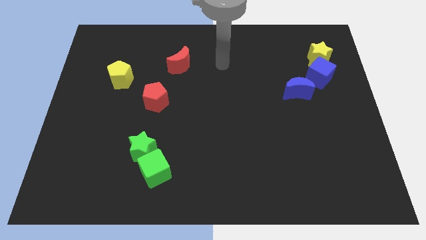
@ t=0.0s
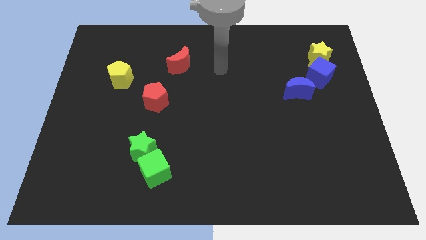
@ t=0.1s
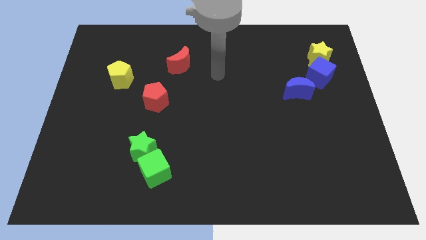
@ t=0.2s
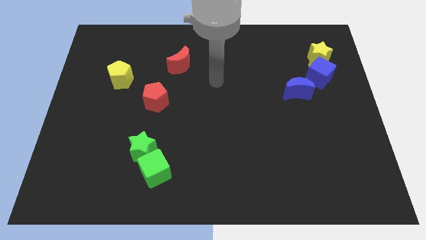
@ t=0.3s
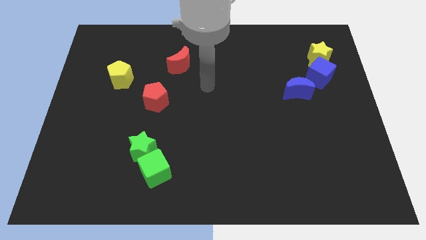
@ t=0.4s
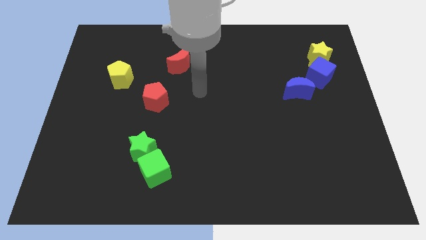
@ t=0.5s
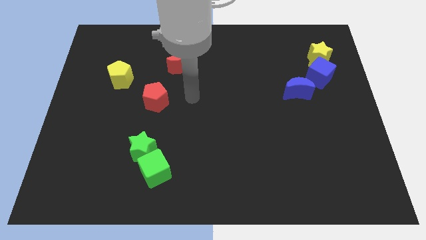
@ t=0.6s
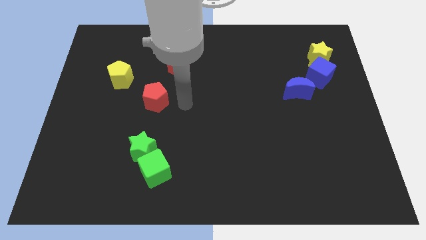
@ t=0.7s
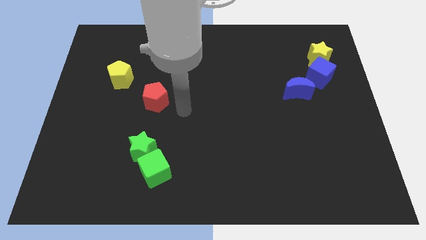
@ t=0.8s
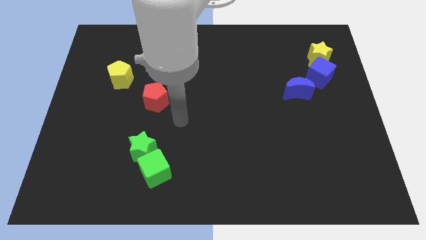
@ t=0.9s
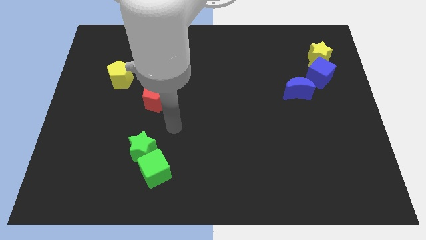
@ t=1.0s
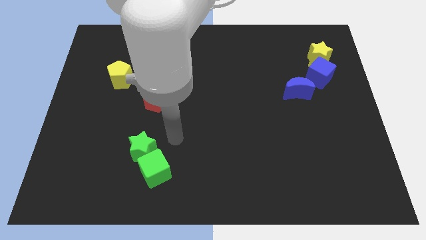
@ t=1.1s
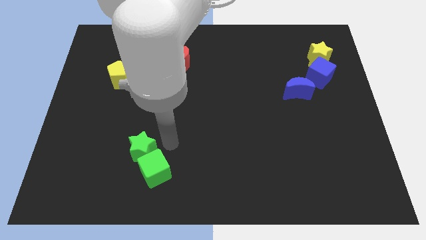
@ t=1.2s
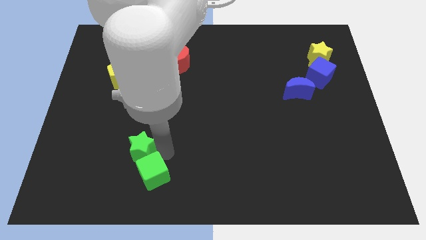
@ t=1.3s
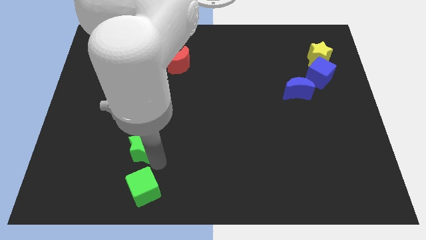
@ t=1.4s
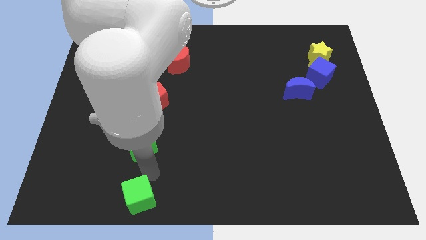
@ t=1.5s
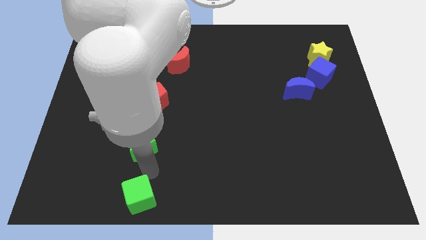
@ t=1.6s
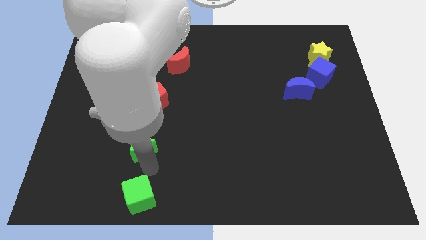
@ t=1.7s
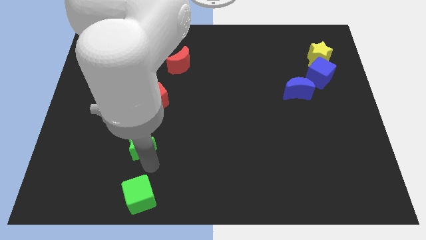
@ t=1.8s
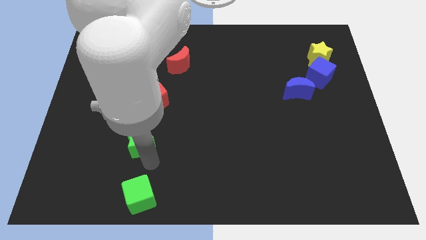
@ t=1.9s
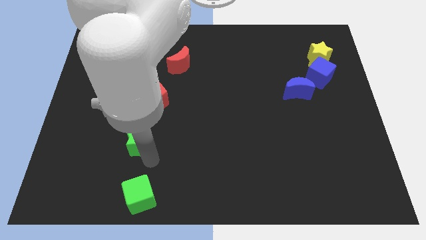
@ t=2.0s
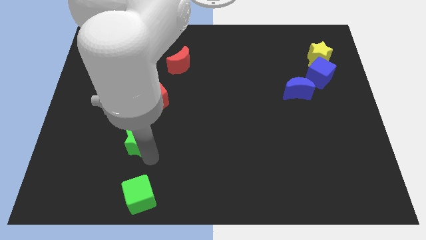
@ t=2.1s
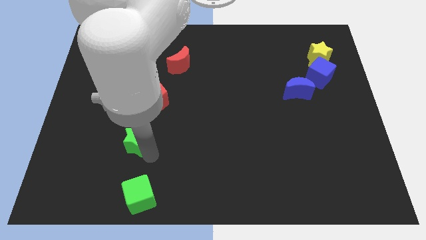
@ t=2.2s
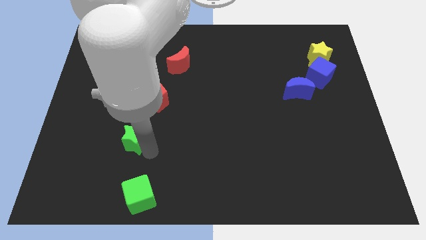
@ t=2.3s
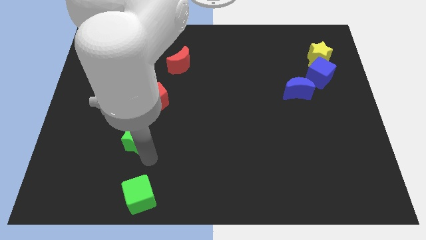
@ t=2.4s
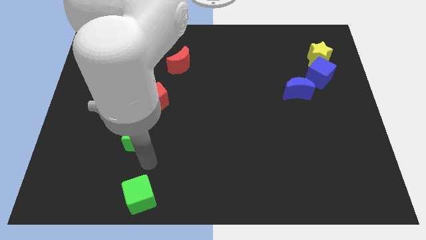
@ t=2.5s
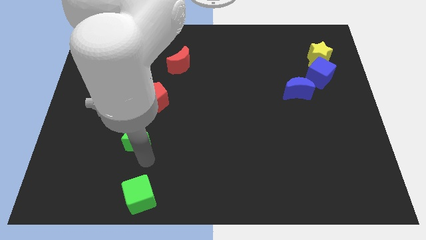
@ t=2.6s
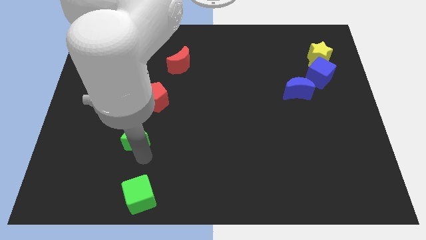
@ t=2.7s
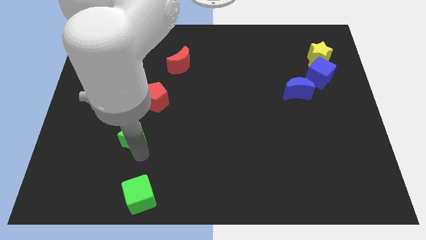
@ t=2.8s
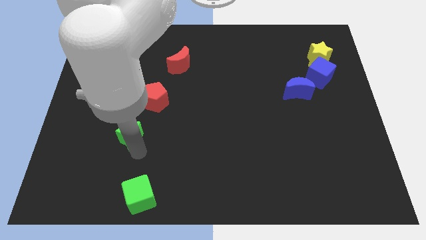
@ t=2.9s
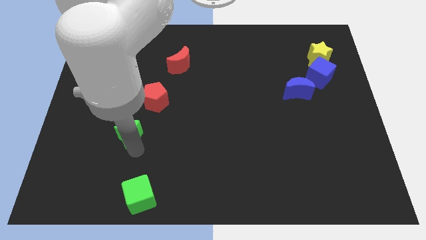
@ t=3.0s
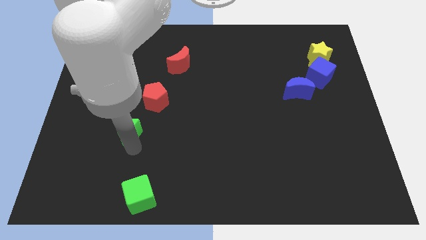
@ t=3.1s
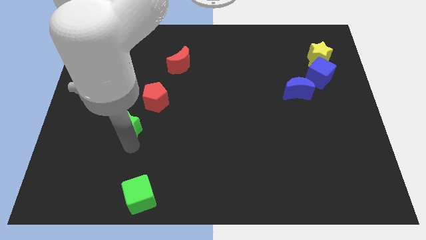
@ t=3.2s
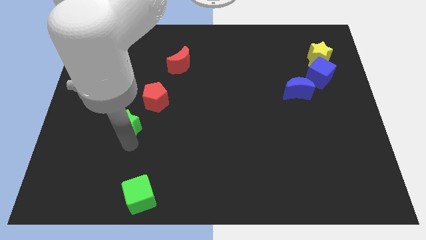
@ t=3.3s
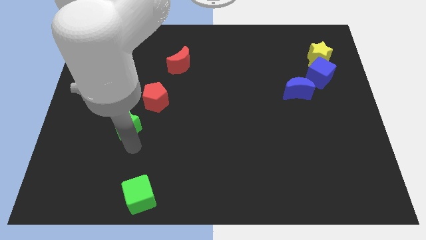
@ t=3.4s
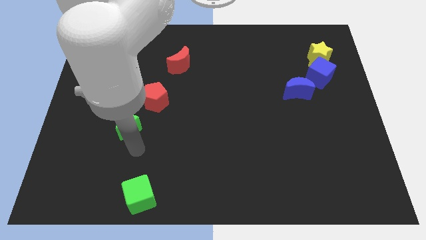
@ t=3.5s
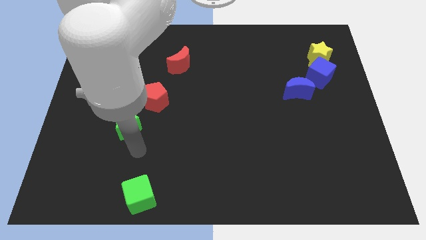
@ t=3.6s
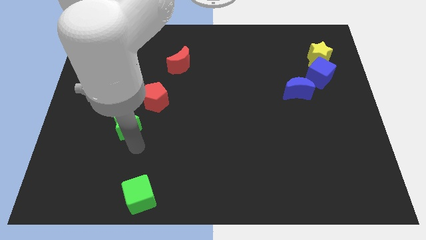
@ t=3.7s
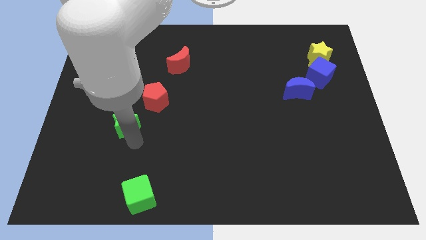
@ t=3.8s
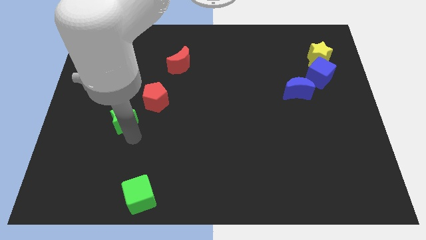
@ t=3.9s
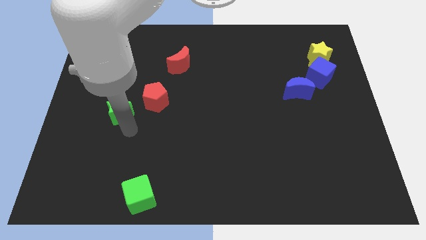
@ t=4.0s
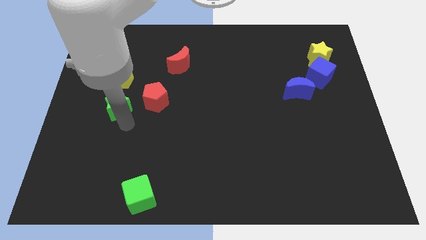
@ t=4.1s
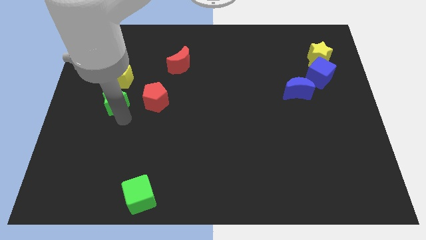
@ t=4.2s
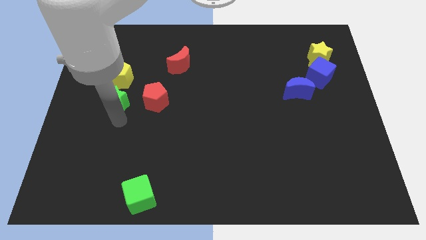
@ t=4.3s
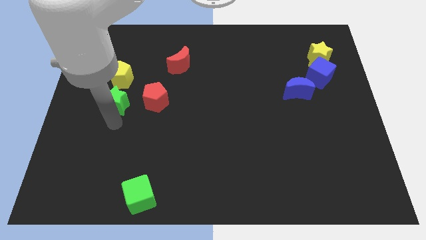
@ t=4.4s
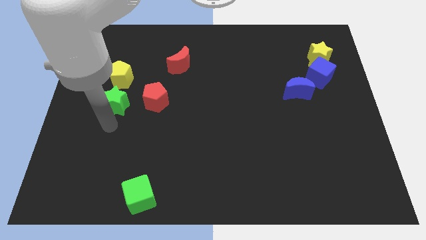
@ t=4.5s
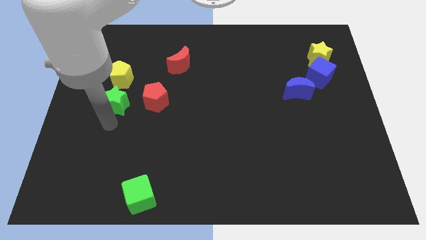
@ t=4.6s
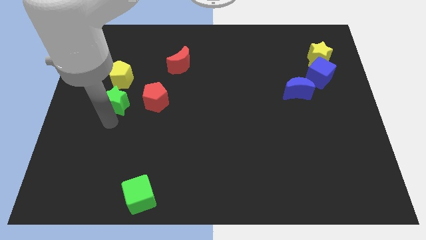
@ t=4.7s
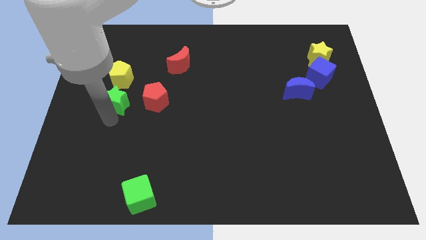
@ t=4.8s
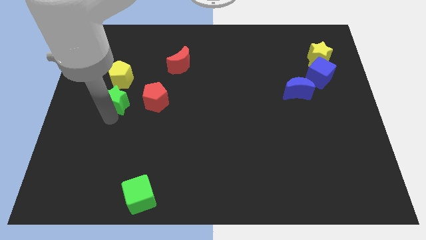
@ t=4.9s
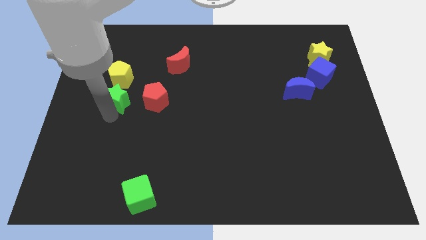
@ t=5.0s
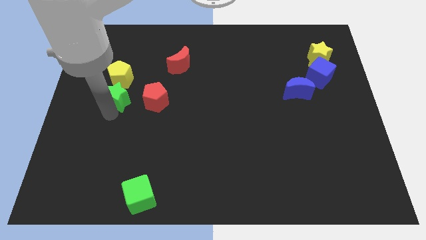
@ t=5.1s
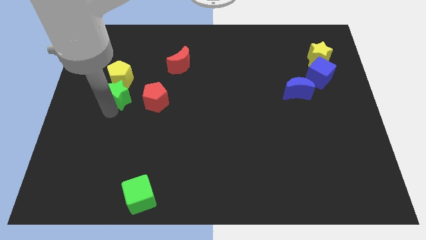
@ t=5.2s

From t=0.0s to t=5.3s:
push the green star to the yellow pentagon

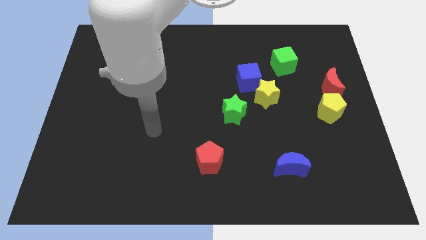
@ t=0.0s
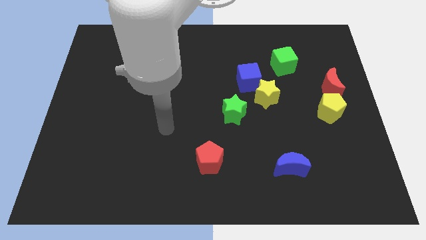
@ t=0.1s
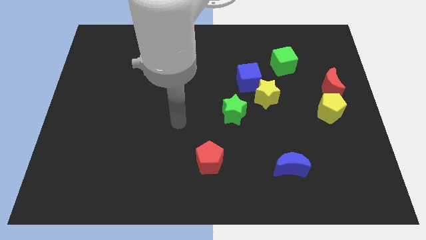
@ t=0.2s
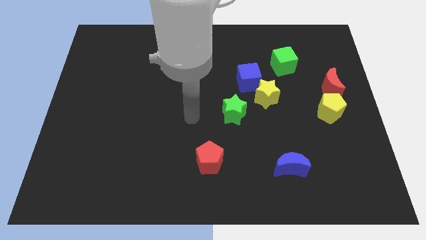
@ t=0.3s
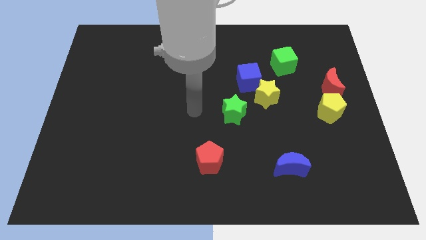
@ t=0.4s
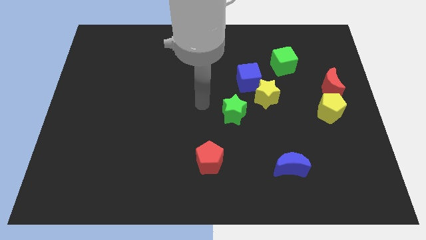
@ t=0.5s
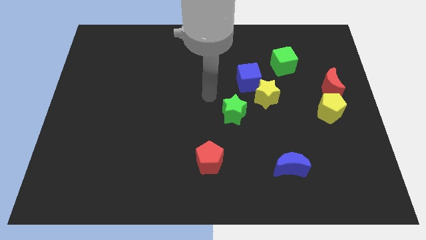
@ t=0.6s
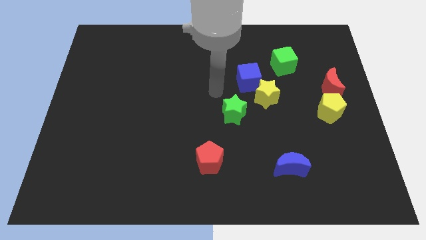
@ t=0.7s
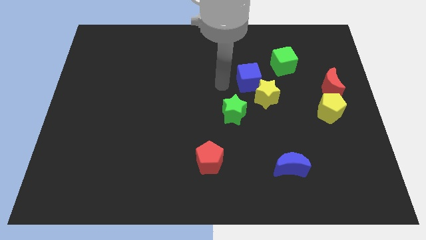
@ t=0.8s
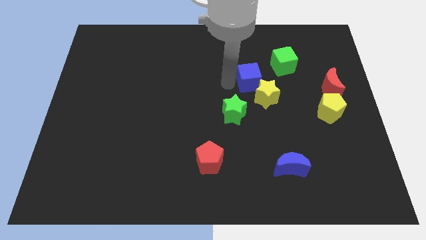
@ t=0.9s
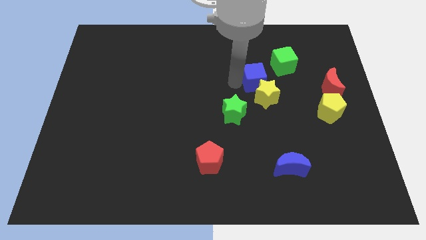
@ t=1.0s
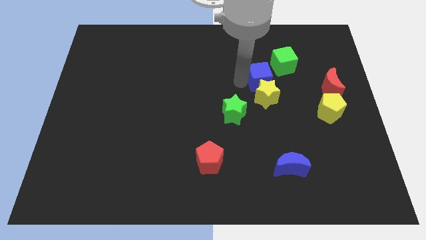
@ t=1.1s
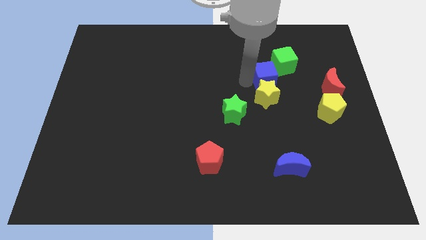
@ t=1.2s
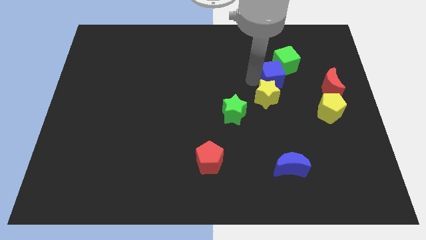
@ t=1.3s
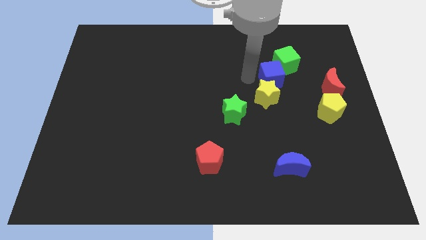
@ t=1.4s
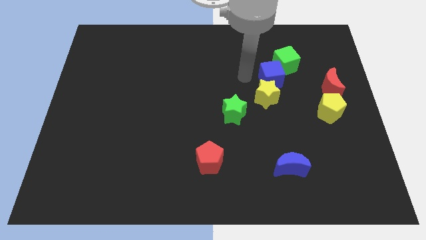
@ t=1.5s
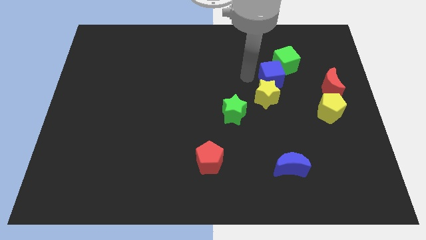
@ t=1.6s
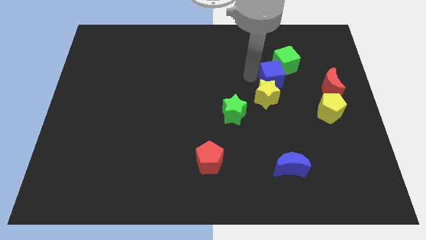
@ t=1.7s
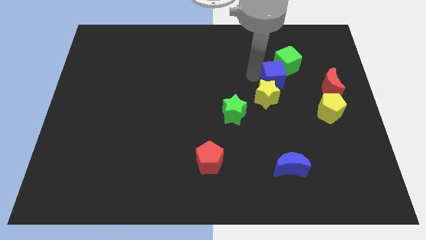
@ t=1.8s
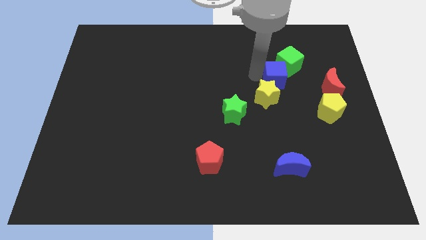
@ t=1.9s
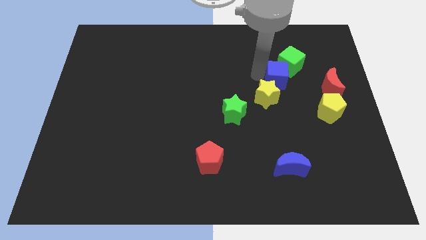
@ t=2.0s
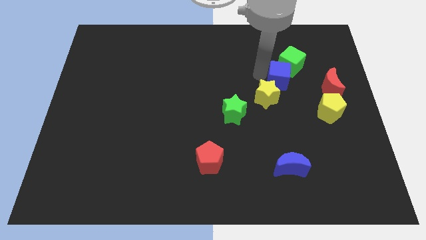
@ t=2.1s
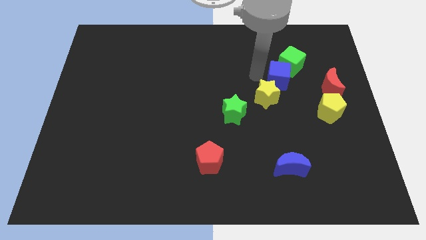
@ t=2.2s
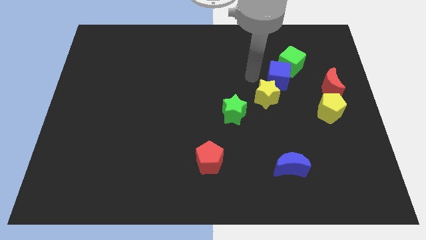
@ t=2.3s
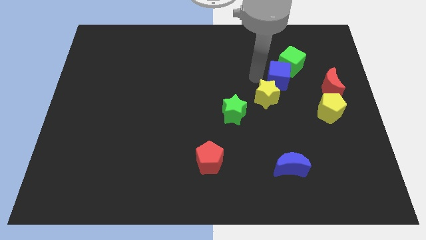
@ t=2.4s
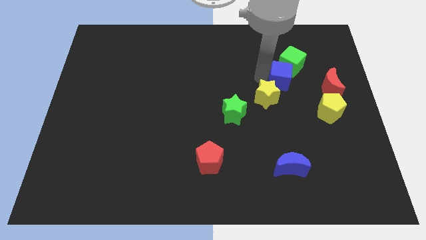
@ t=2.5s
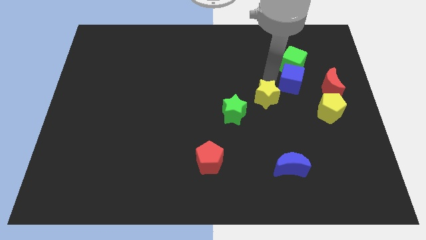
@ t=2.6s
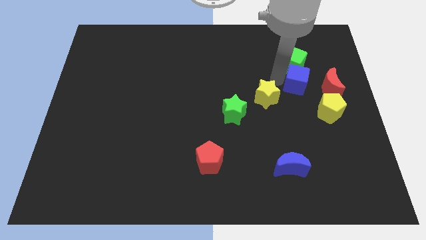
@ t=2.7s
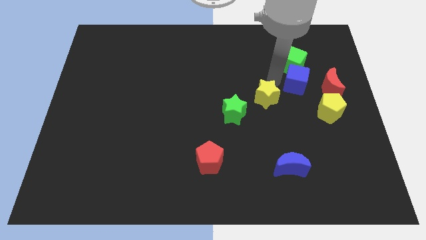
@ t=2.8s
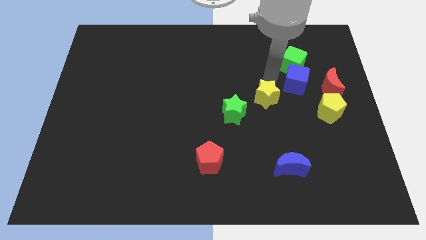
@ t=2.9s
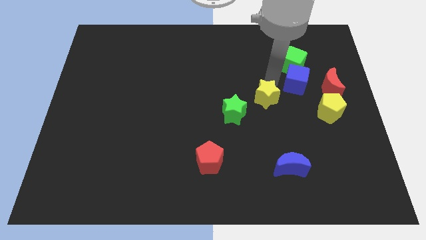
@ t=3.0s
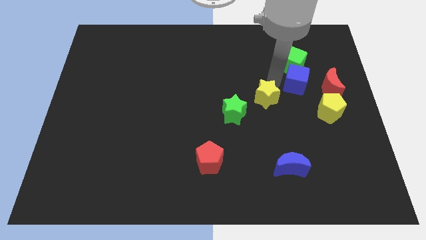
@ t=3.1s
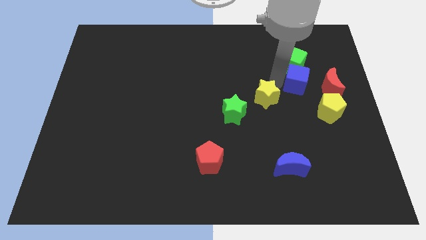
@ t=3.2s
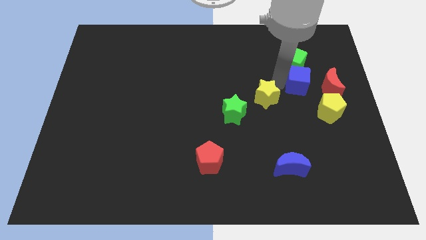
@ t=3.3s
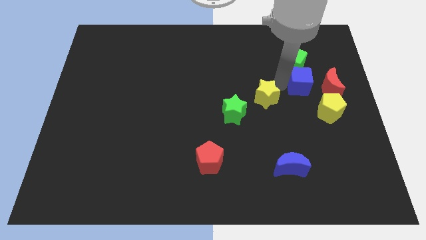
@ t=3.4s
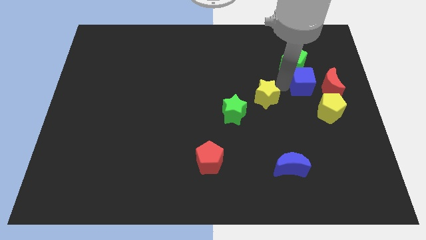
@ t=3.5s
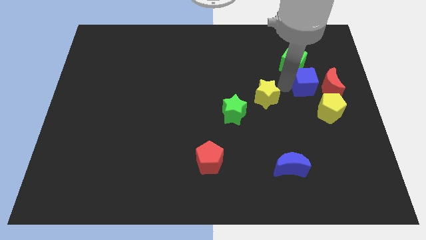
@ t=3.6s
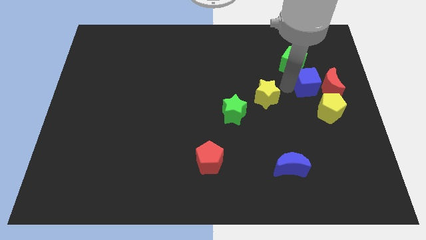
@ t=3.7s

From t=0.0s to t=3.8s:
slide the blue cube close to the red moon
